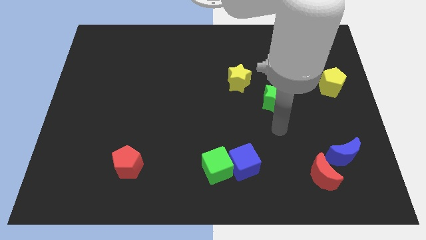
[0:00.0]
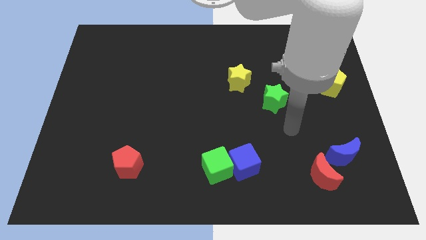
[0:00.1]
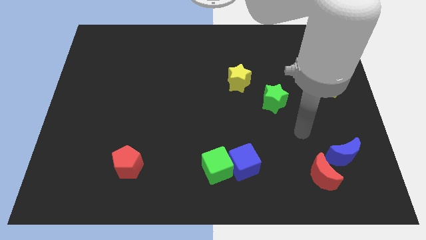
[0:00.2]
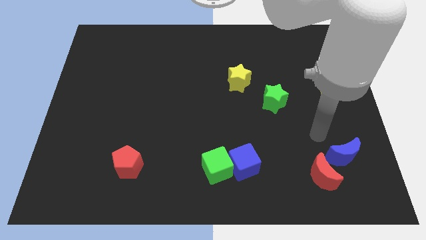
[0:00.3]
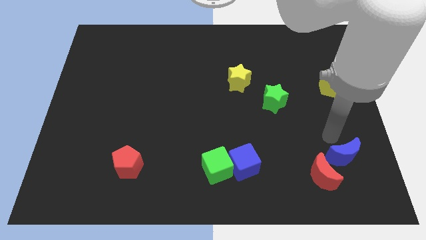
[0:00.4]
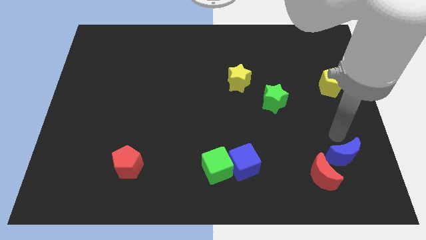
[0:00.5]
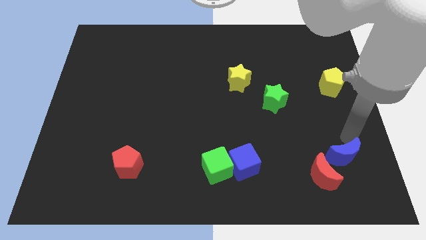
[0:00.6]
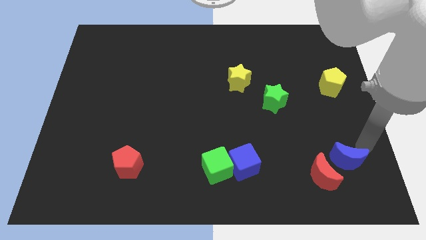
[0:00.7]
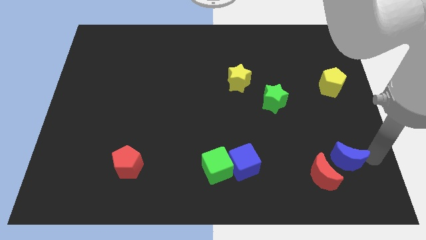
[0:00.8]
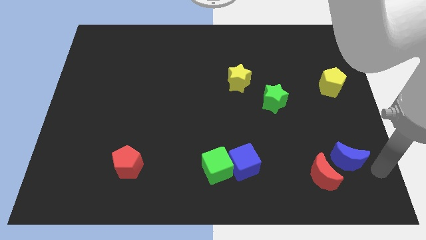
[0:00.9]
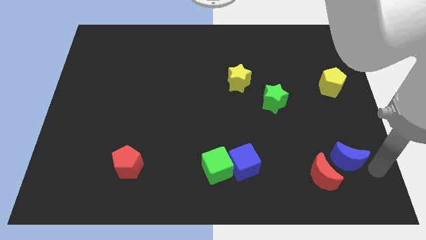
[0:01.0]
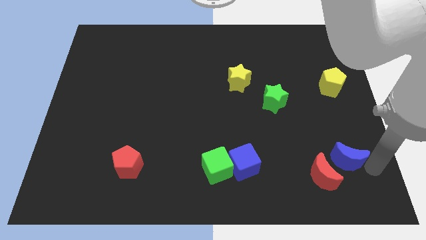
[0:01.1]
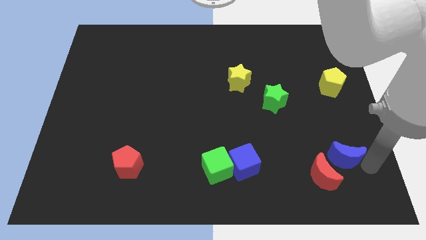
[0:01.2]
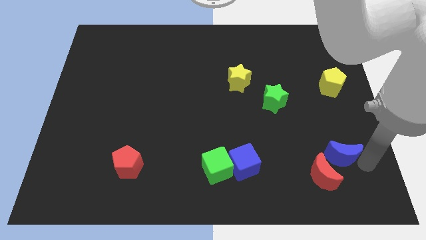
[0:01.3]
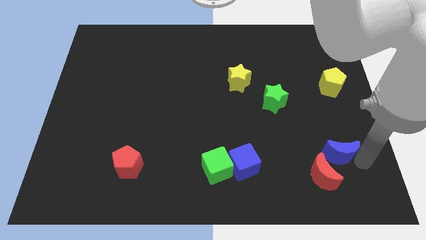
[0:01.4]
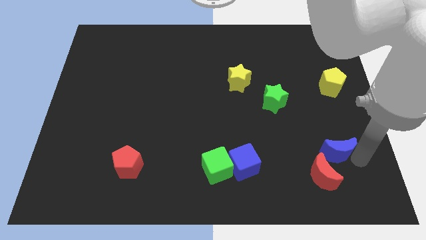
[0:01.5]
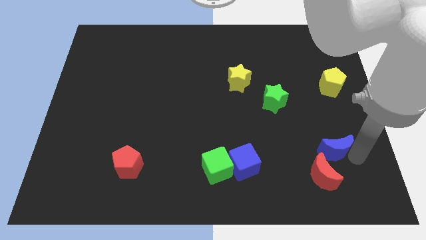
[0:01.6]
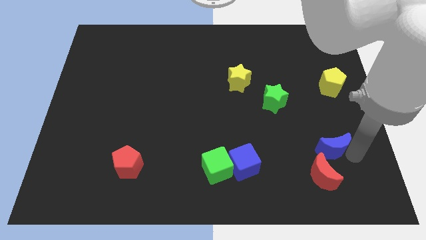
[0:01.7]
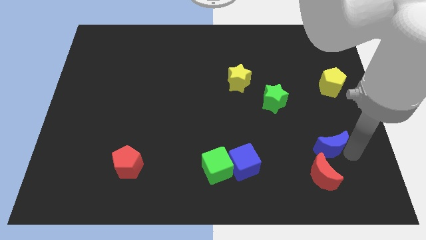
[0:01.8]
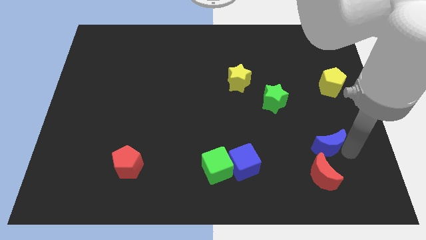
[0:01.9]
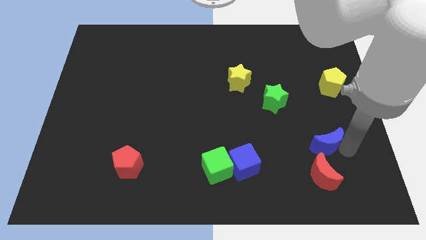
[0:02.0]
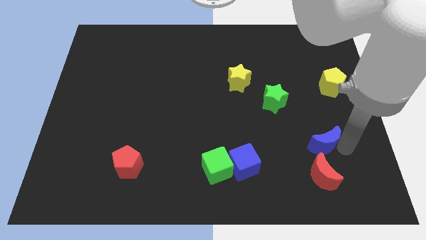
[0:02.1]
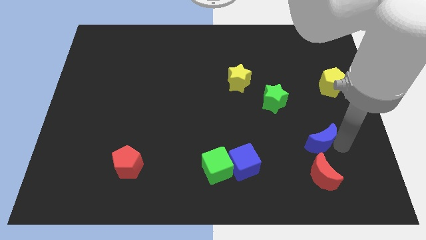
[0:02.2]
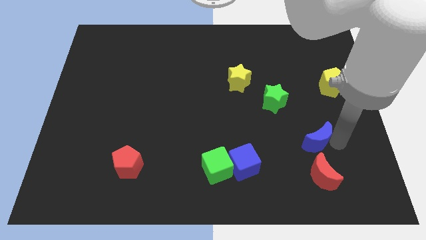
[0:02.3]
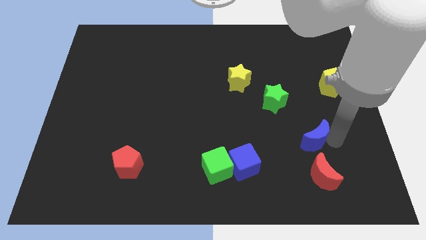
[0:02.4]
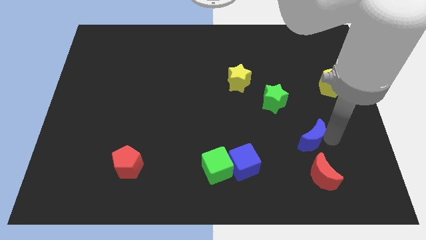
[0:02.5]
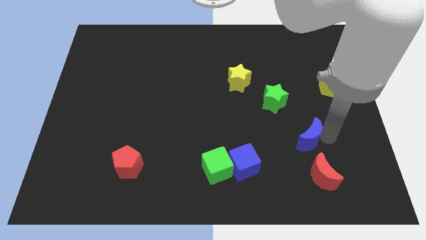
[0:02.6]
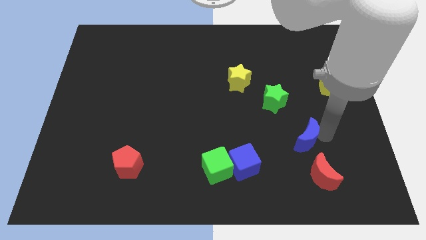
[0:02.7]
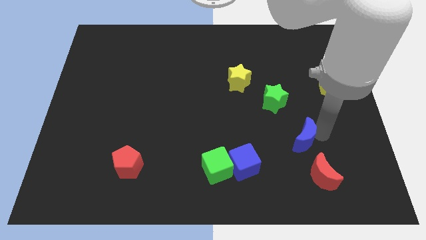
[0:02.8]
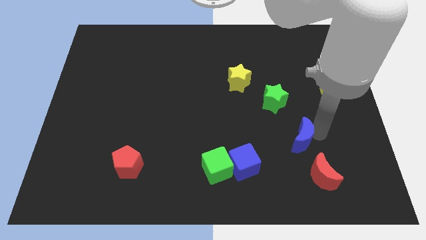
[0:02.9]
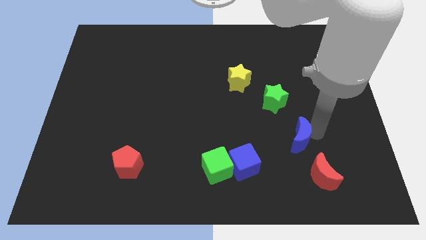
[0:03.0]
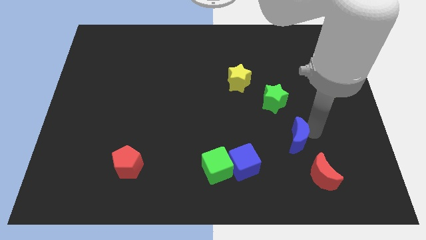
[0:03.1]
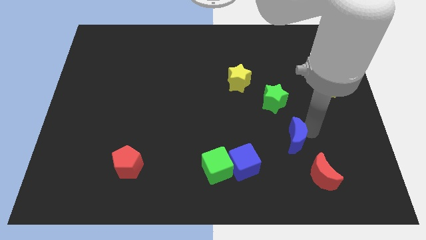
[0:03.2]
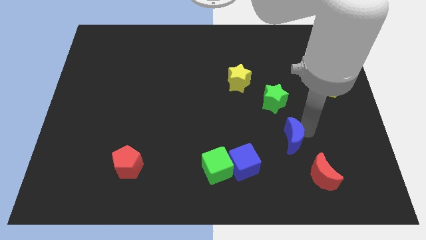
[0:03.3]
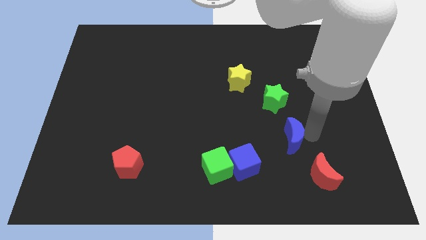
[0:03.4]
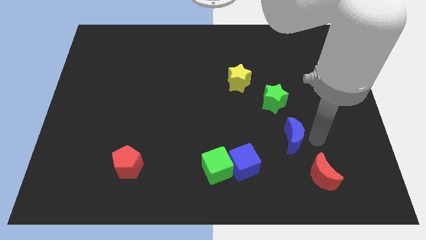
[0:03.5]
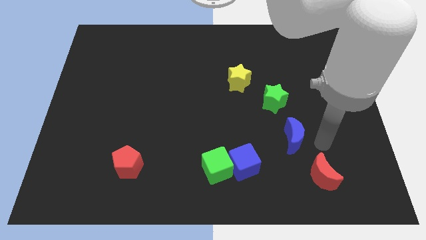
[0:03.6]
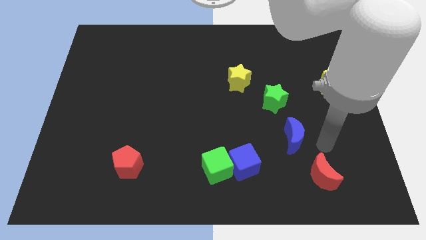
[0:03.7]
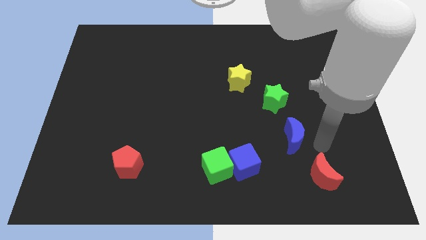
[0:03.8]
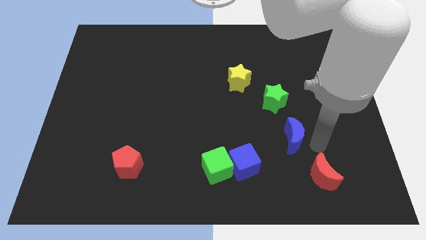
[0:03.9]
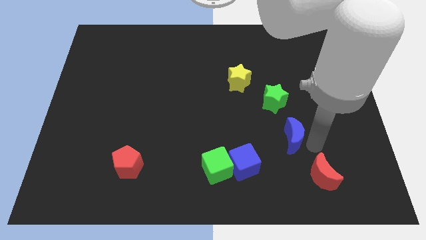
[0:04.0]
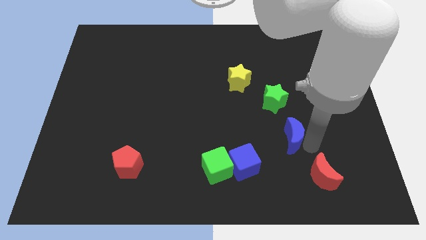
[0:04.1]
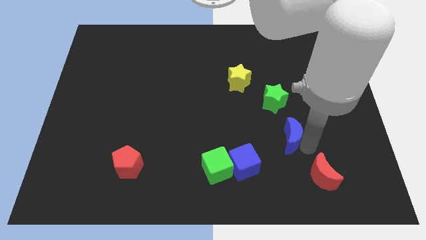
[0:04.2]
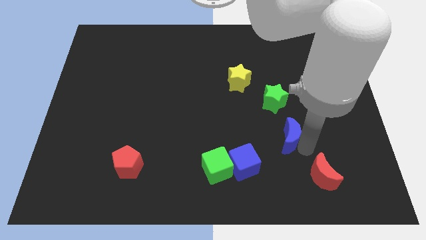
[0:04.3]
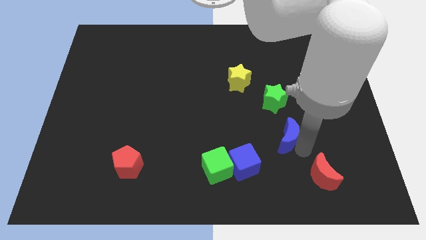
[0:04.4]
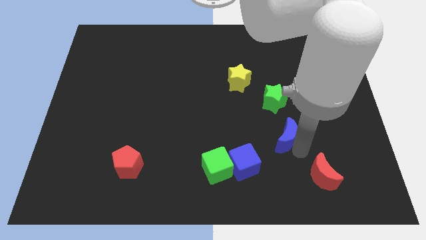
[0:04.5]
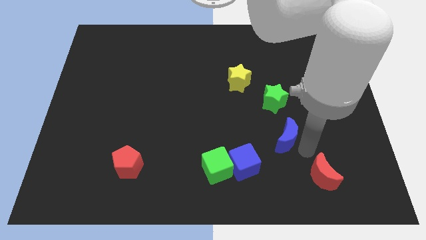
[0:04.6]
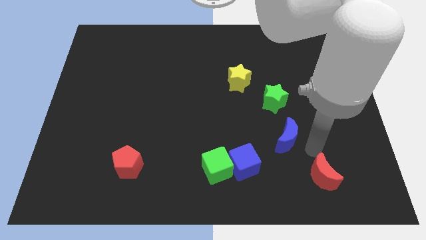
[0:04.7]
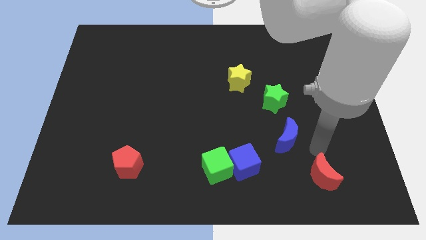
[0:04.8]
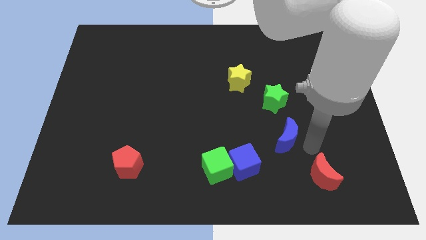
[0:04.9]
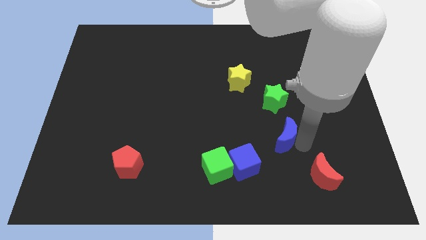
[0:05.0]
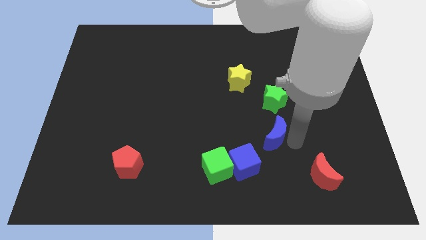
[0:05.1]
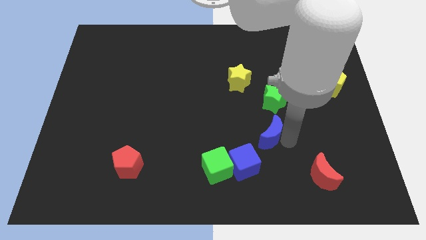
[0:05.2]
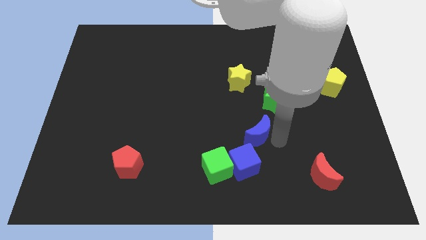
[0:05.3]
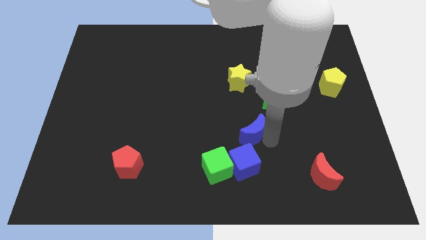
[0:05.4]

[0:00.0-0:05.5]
slide the blue moon to the bottom of the yellow star

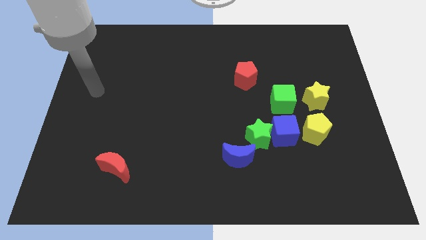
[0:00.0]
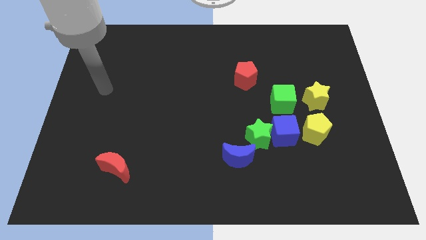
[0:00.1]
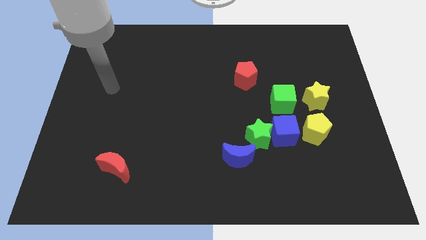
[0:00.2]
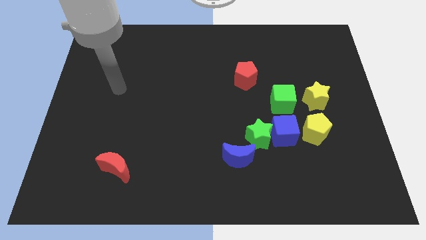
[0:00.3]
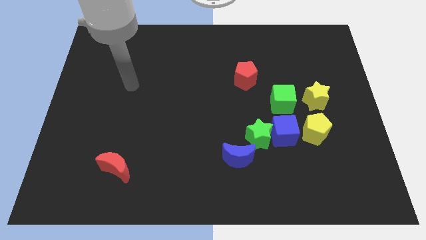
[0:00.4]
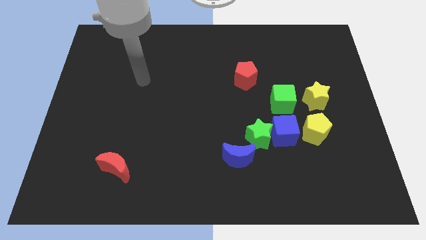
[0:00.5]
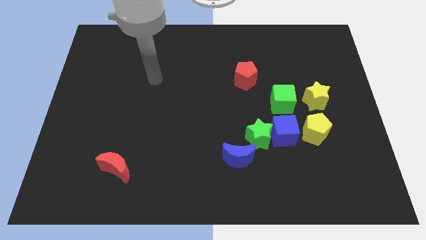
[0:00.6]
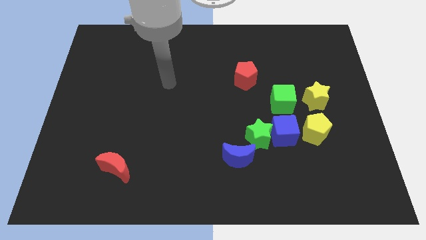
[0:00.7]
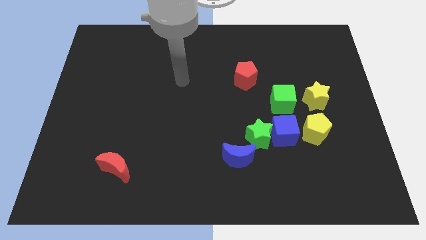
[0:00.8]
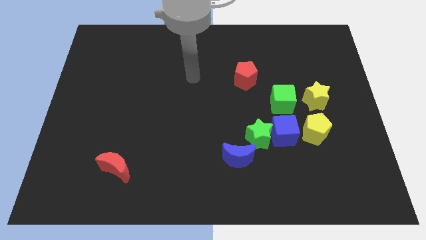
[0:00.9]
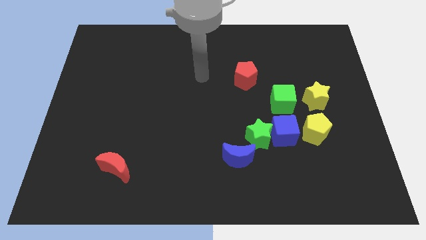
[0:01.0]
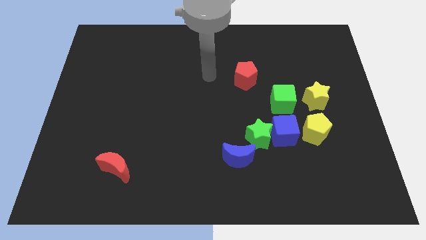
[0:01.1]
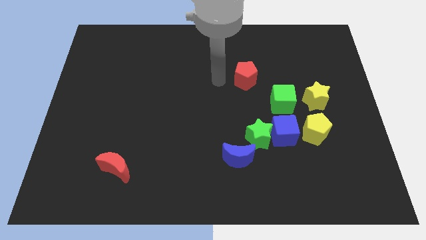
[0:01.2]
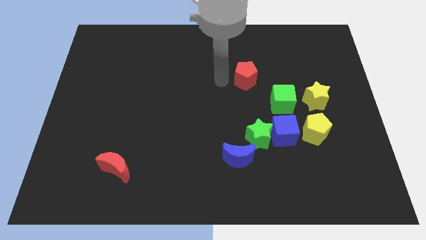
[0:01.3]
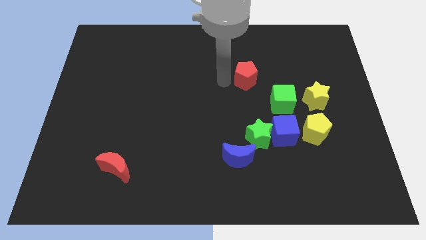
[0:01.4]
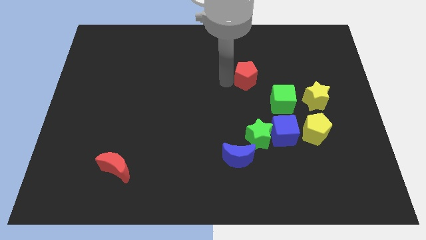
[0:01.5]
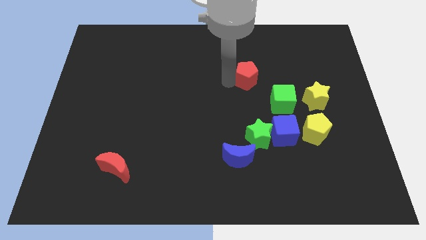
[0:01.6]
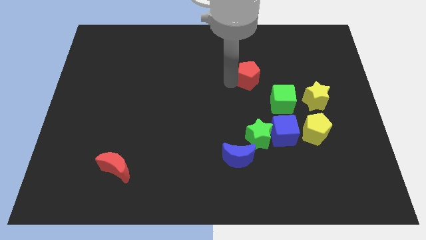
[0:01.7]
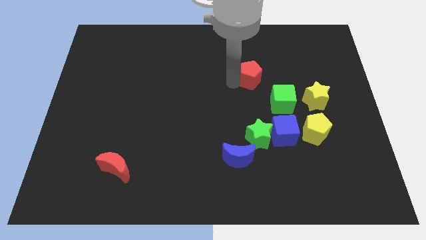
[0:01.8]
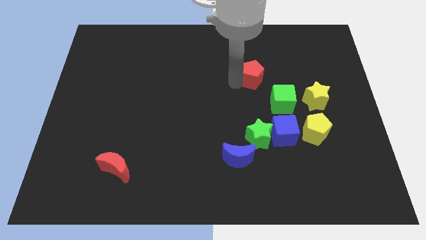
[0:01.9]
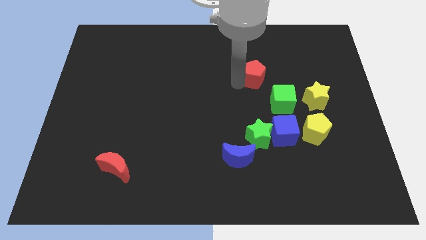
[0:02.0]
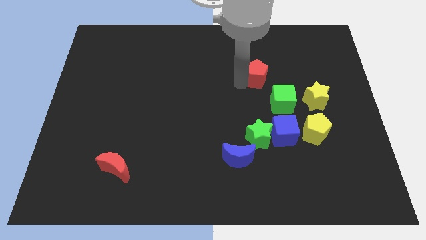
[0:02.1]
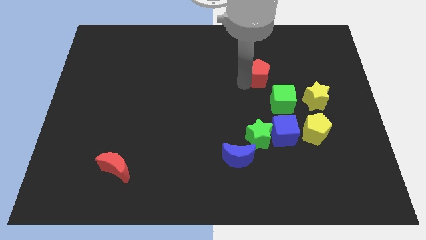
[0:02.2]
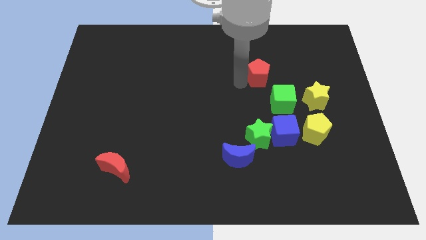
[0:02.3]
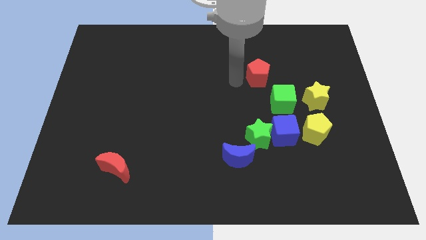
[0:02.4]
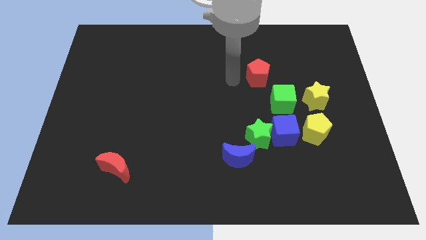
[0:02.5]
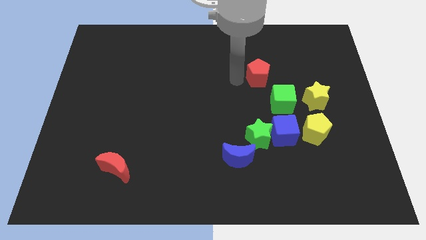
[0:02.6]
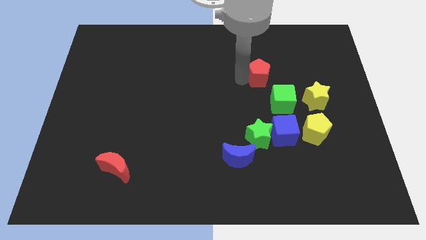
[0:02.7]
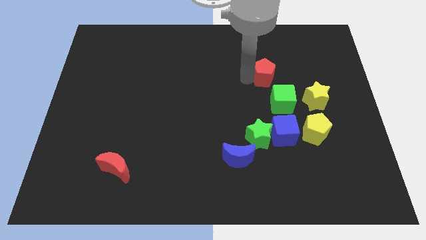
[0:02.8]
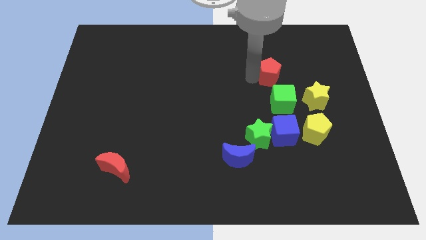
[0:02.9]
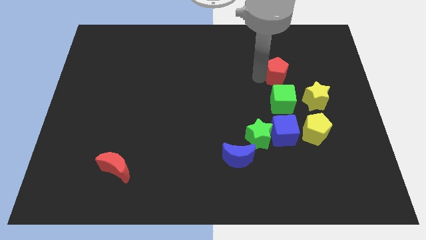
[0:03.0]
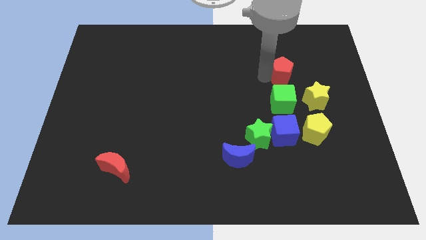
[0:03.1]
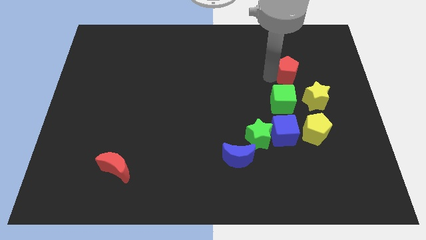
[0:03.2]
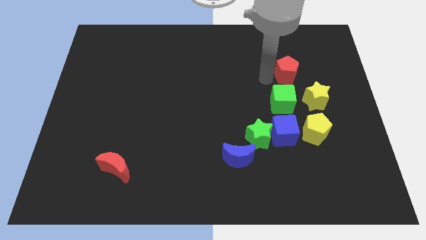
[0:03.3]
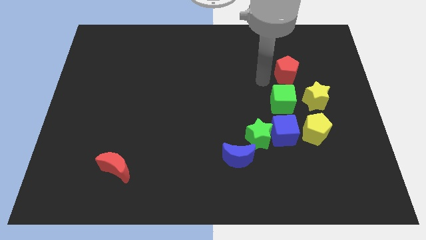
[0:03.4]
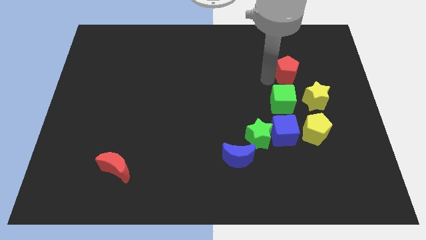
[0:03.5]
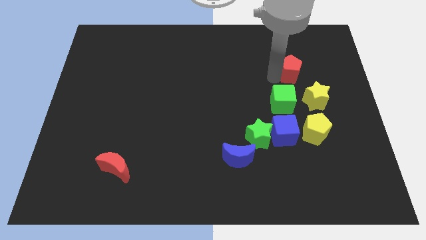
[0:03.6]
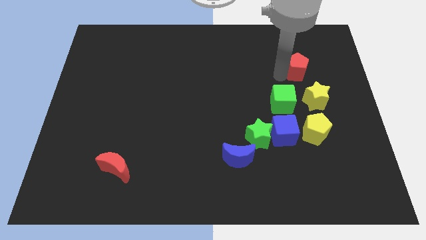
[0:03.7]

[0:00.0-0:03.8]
move the red pentagon to the top side of the yellow star
